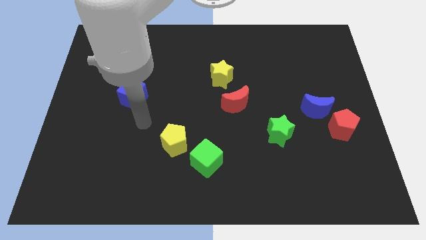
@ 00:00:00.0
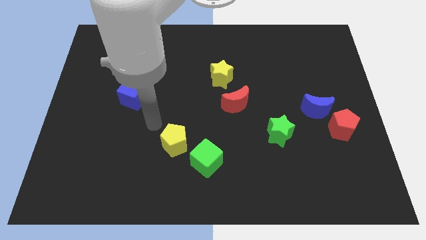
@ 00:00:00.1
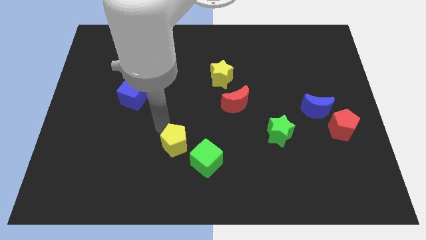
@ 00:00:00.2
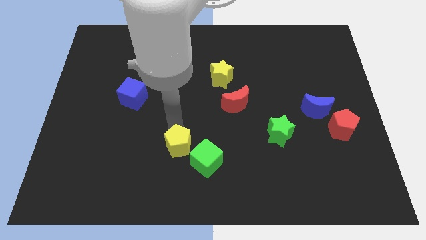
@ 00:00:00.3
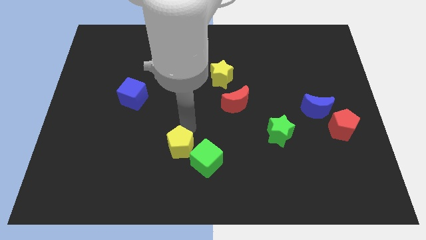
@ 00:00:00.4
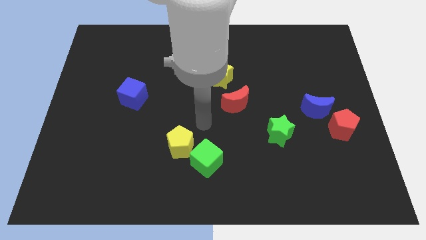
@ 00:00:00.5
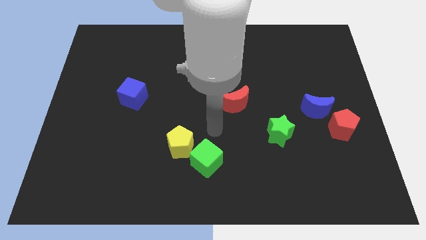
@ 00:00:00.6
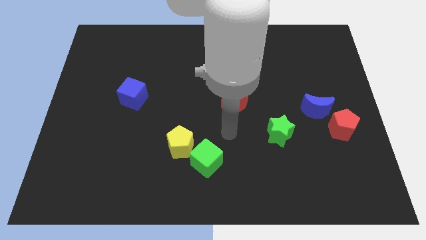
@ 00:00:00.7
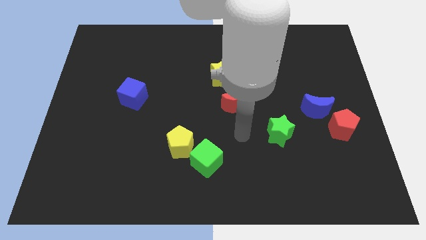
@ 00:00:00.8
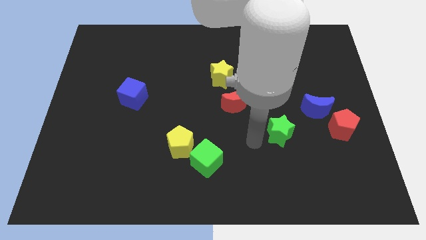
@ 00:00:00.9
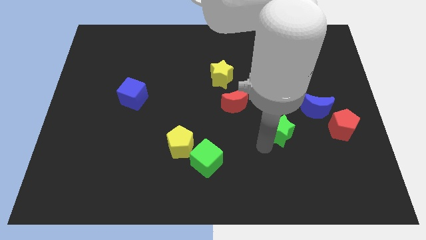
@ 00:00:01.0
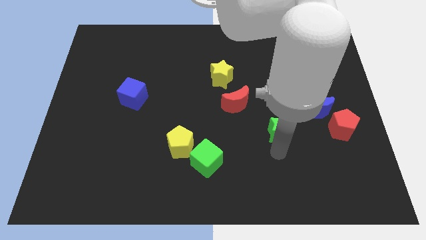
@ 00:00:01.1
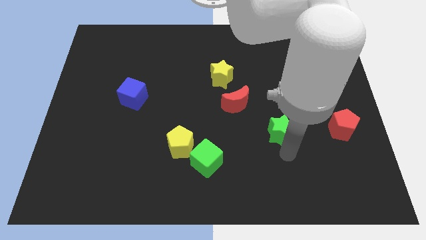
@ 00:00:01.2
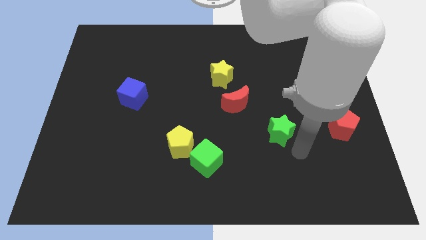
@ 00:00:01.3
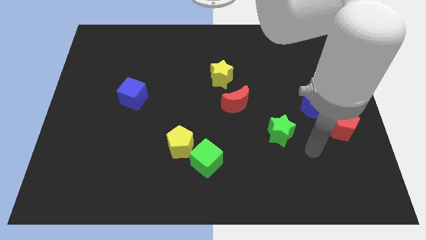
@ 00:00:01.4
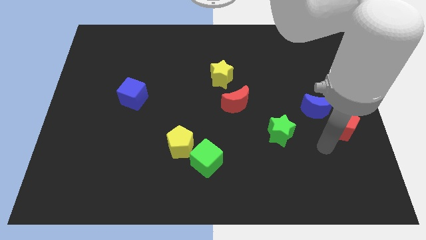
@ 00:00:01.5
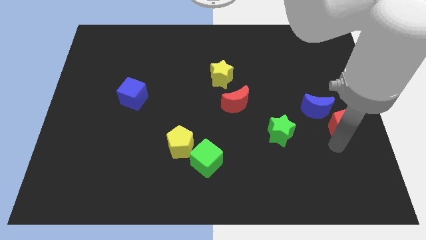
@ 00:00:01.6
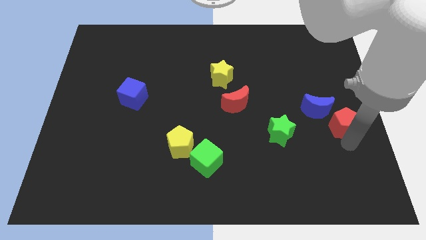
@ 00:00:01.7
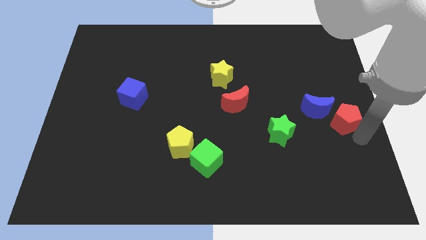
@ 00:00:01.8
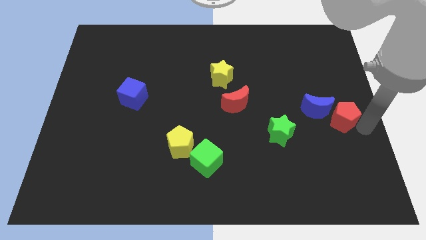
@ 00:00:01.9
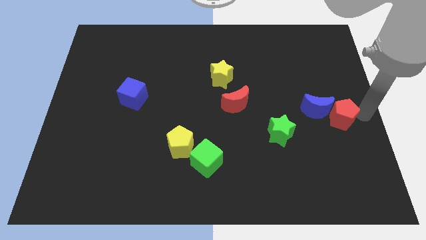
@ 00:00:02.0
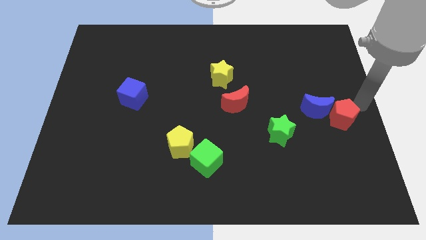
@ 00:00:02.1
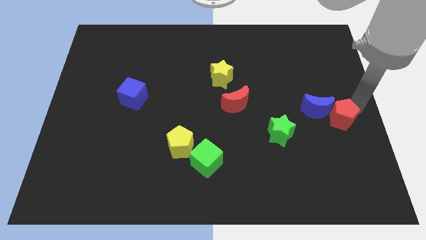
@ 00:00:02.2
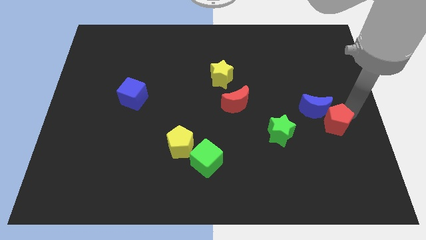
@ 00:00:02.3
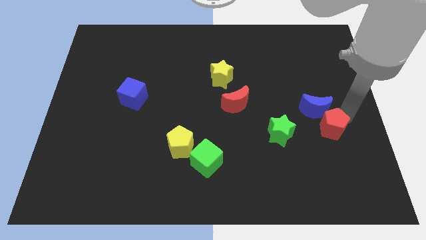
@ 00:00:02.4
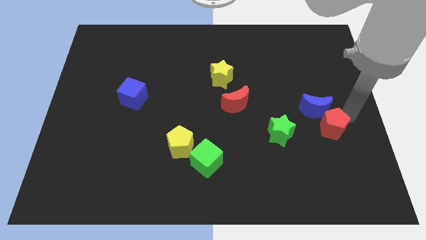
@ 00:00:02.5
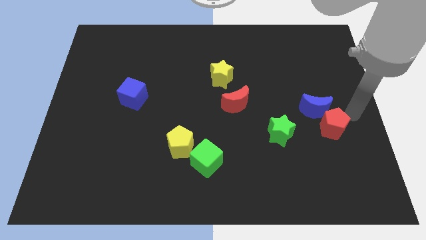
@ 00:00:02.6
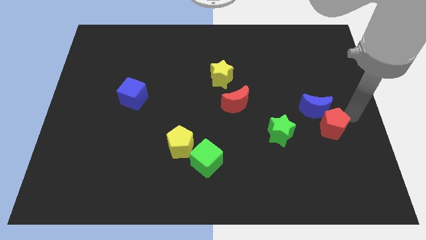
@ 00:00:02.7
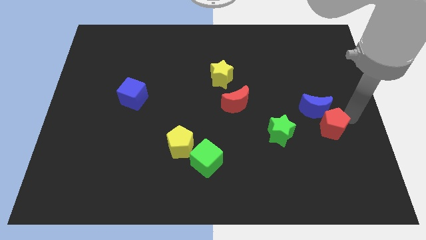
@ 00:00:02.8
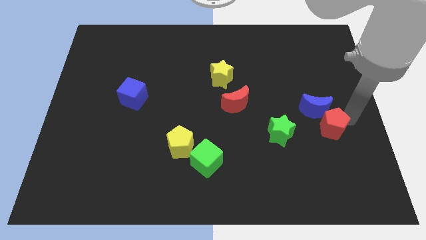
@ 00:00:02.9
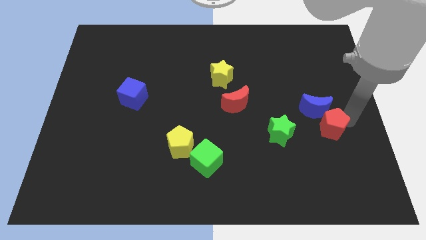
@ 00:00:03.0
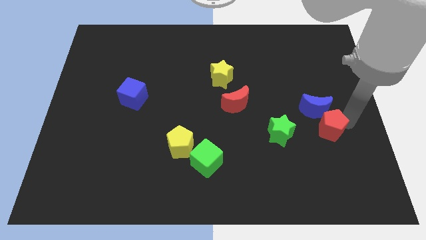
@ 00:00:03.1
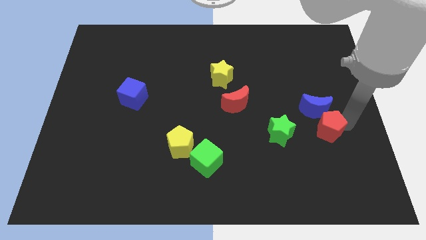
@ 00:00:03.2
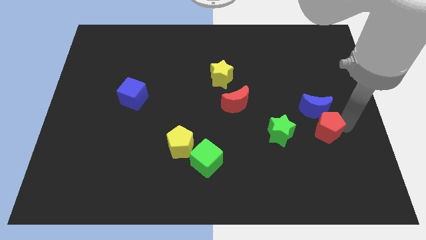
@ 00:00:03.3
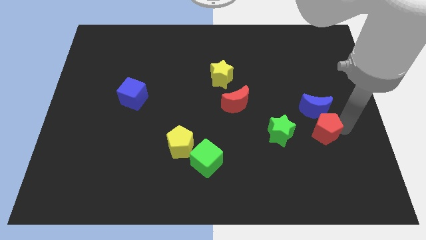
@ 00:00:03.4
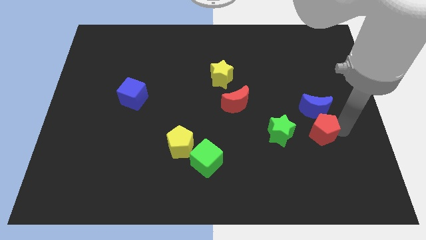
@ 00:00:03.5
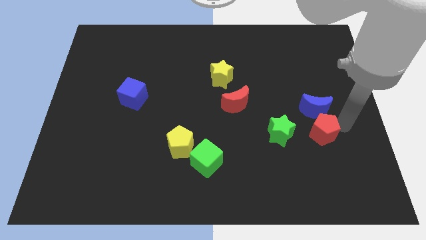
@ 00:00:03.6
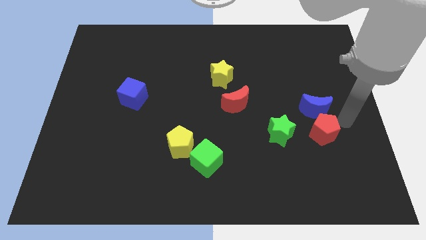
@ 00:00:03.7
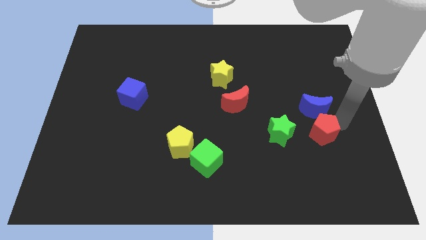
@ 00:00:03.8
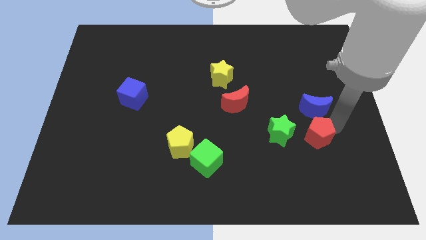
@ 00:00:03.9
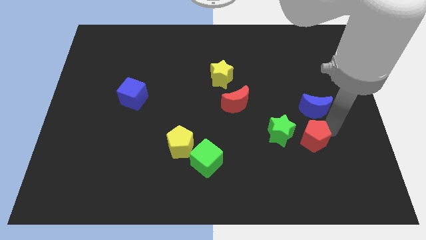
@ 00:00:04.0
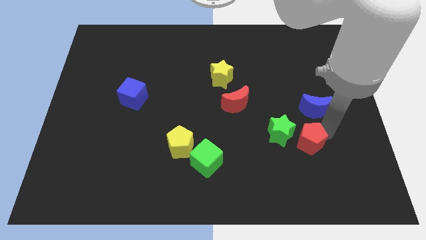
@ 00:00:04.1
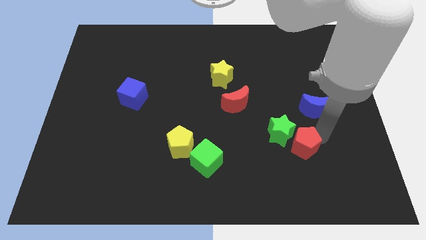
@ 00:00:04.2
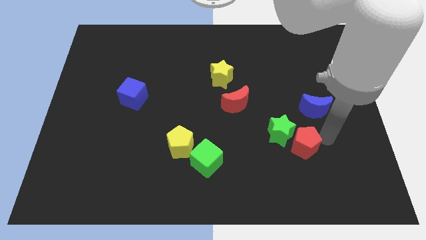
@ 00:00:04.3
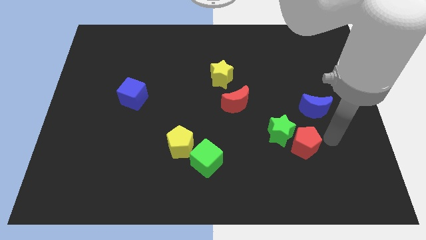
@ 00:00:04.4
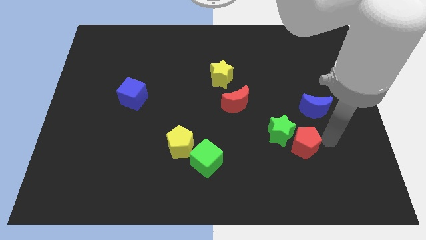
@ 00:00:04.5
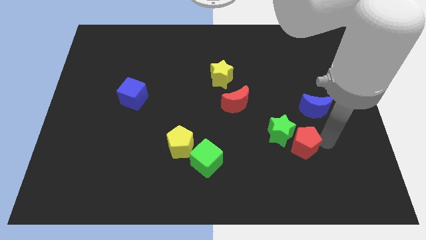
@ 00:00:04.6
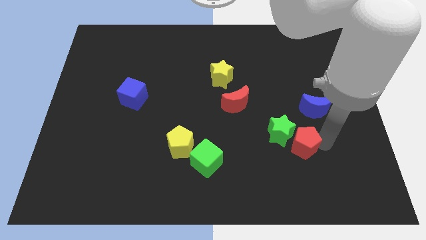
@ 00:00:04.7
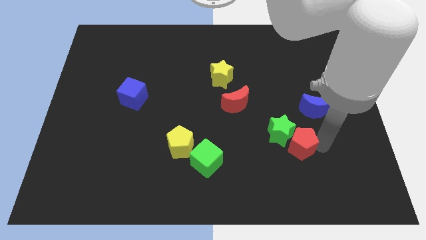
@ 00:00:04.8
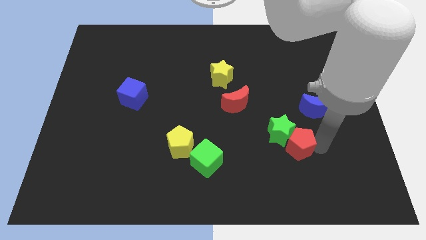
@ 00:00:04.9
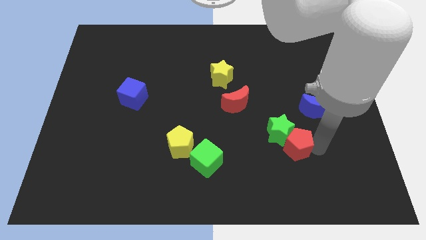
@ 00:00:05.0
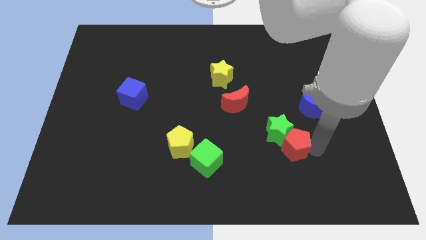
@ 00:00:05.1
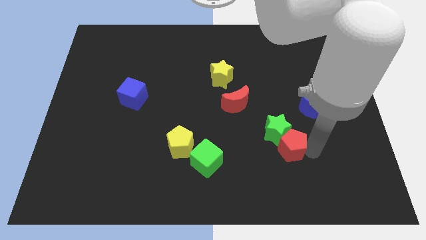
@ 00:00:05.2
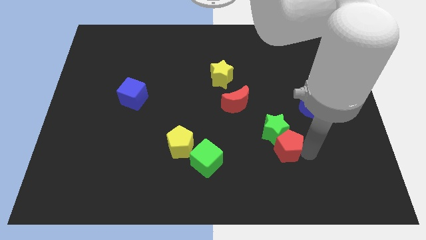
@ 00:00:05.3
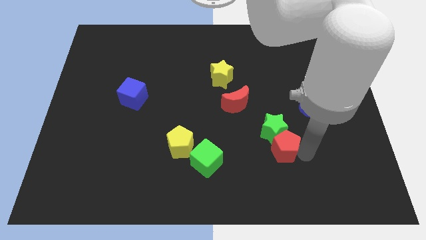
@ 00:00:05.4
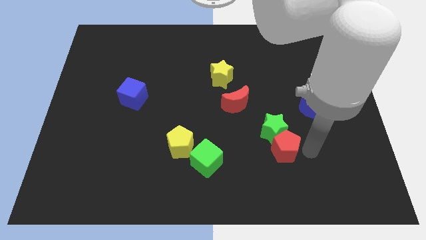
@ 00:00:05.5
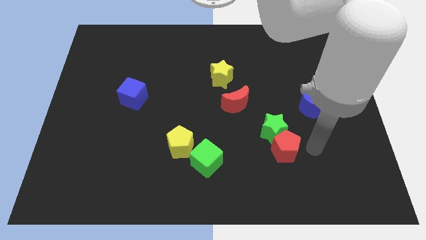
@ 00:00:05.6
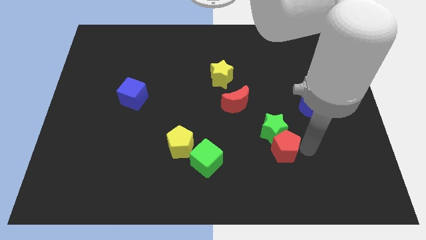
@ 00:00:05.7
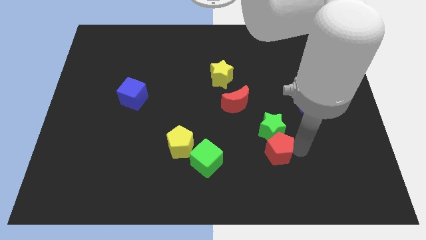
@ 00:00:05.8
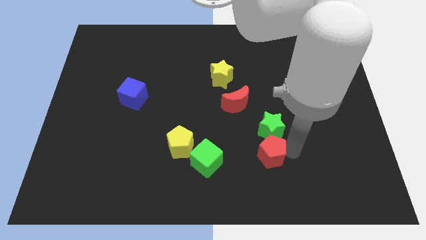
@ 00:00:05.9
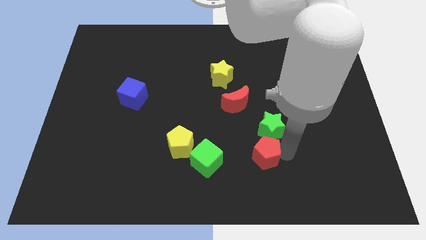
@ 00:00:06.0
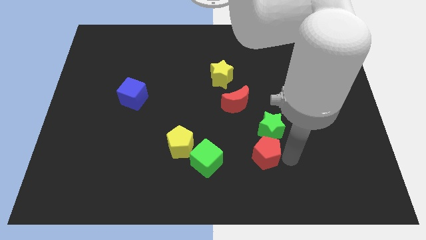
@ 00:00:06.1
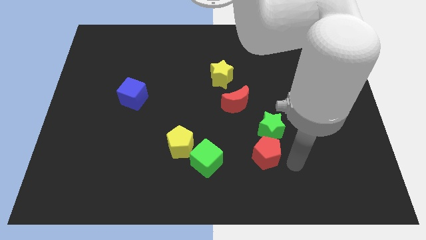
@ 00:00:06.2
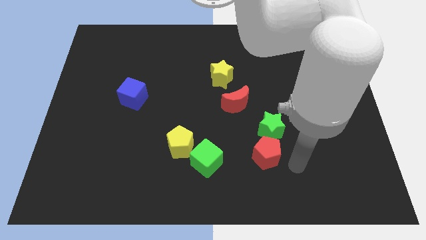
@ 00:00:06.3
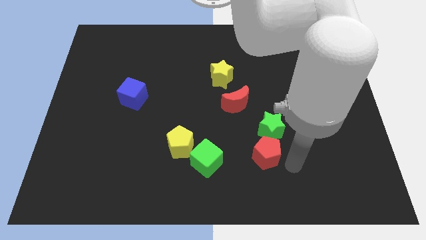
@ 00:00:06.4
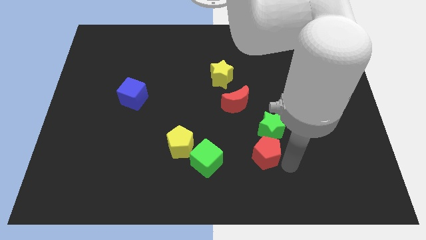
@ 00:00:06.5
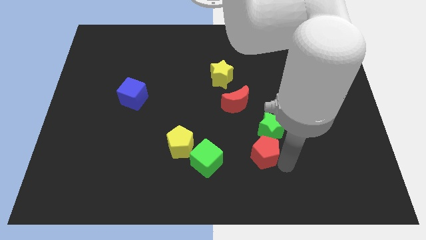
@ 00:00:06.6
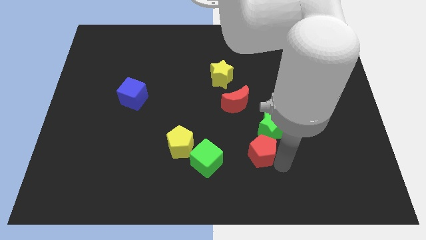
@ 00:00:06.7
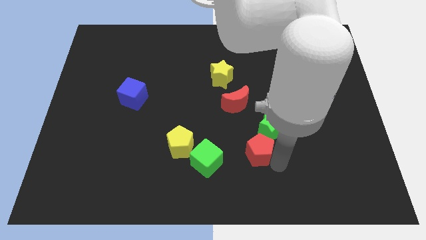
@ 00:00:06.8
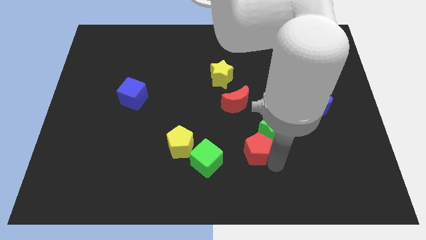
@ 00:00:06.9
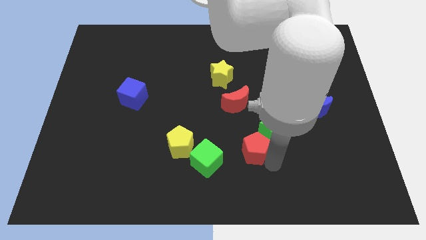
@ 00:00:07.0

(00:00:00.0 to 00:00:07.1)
put the red pentagon to the right side of the yellow pentagon
